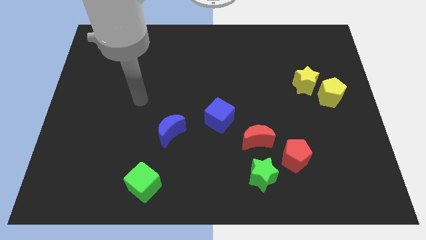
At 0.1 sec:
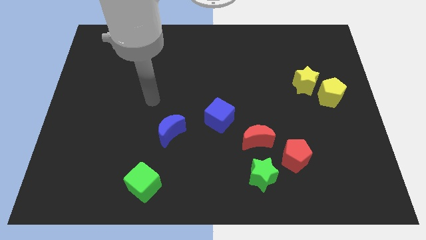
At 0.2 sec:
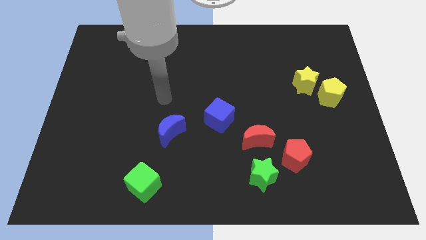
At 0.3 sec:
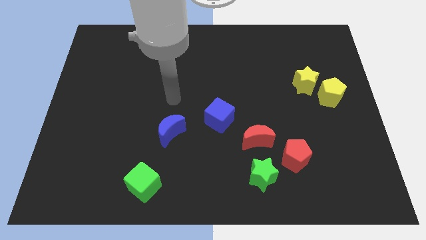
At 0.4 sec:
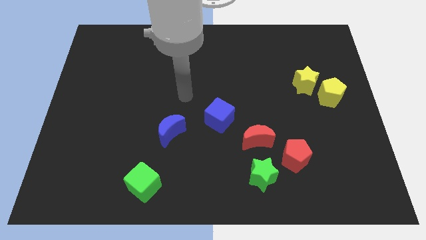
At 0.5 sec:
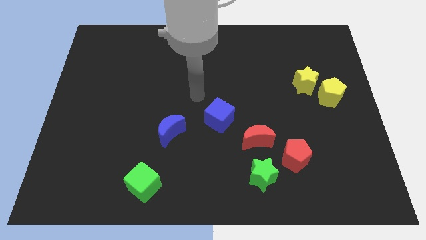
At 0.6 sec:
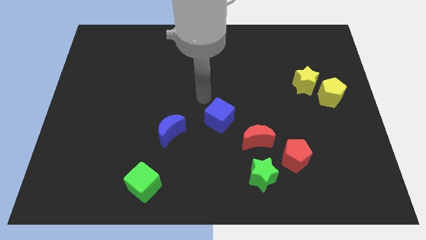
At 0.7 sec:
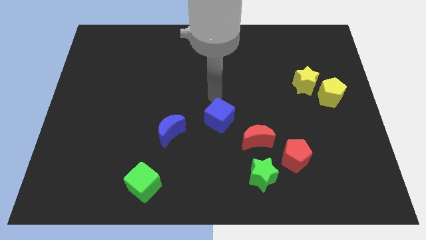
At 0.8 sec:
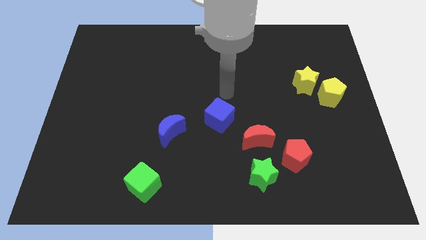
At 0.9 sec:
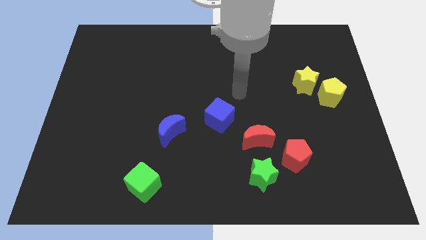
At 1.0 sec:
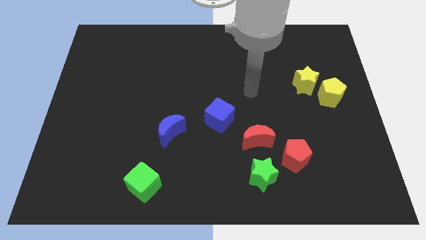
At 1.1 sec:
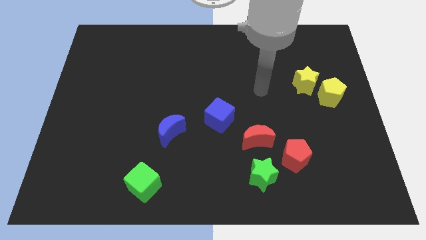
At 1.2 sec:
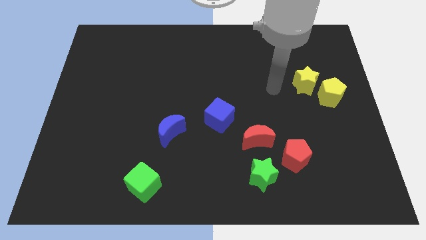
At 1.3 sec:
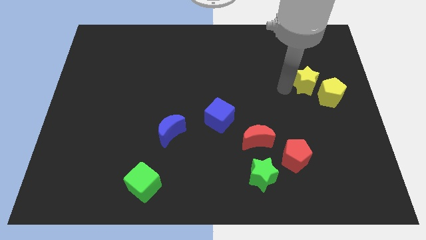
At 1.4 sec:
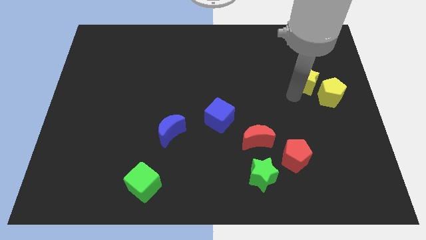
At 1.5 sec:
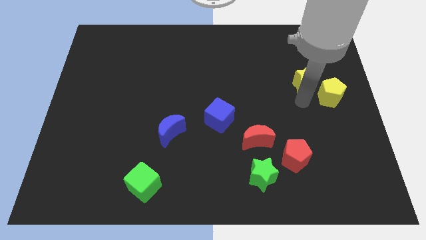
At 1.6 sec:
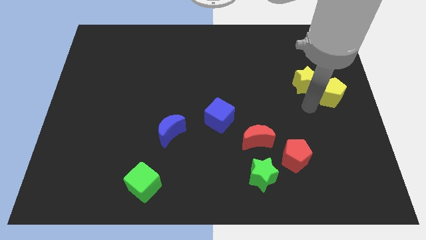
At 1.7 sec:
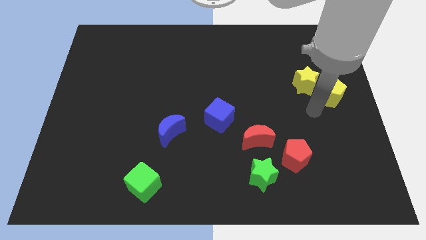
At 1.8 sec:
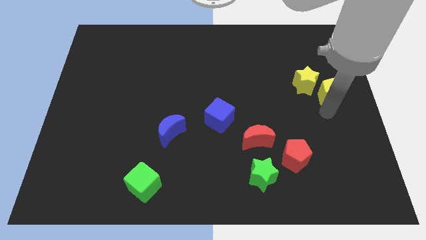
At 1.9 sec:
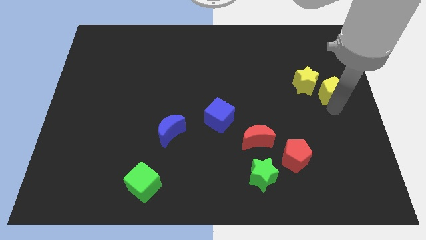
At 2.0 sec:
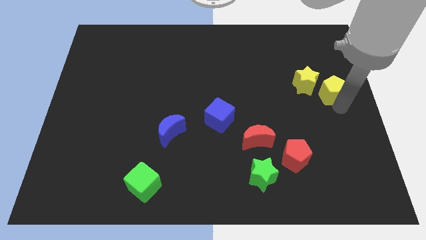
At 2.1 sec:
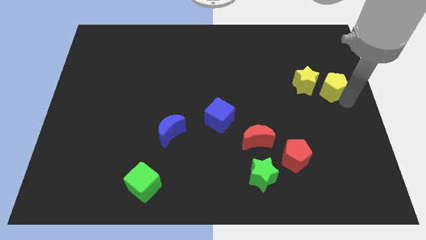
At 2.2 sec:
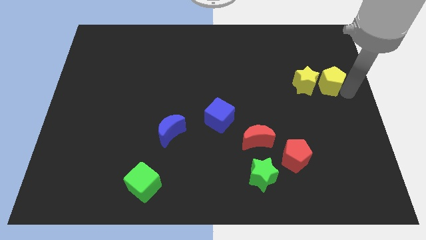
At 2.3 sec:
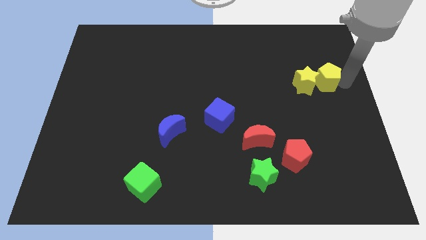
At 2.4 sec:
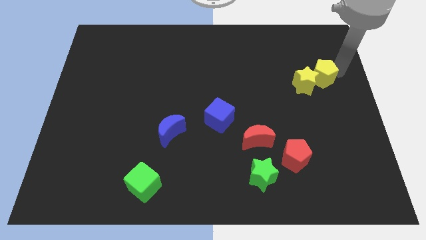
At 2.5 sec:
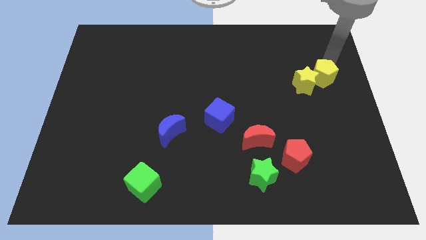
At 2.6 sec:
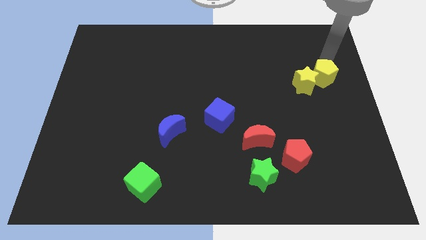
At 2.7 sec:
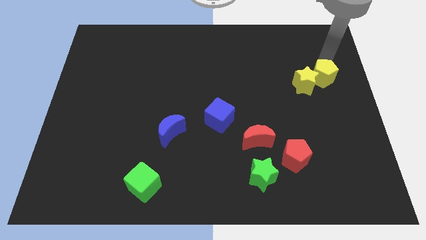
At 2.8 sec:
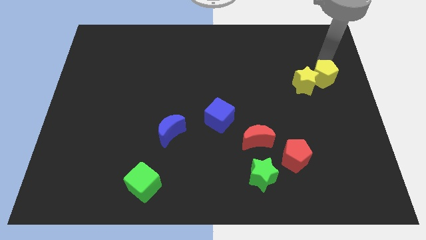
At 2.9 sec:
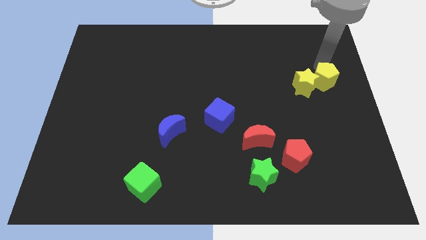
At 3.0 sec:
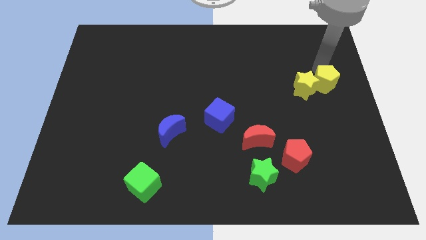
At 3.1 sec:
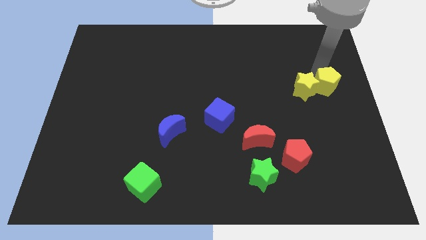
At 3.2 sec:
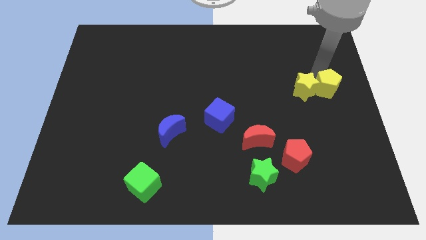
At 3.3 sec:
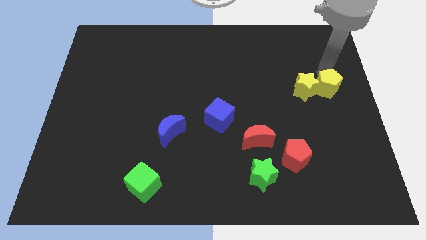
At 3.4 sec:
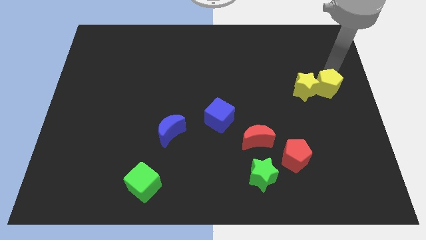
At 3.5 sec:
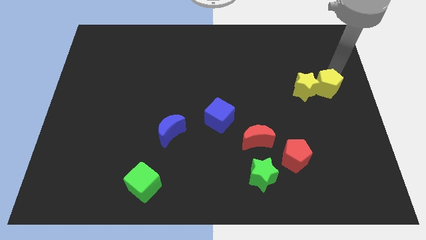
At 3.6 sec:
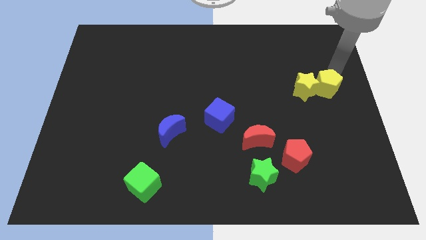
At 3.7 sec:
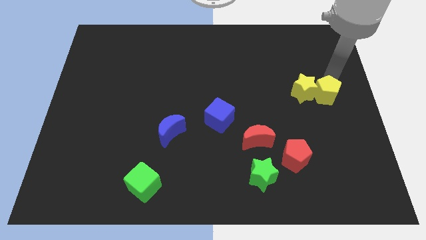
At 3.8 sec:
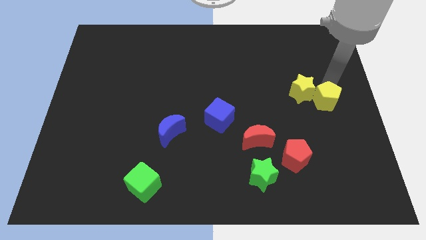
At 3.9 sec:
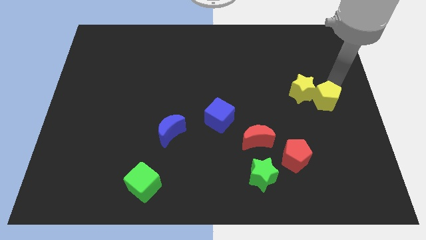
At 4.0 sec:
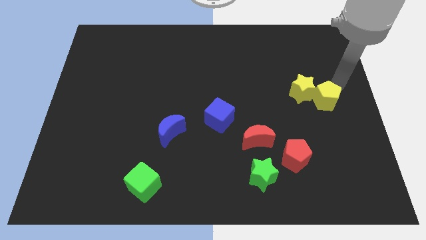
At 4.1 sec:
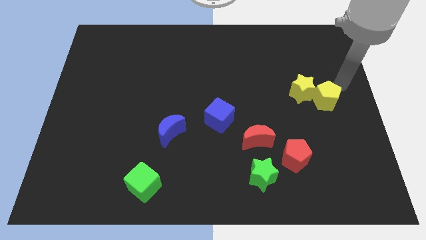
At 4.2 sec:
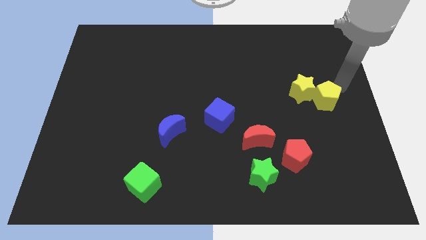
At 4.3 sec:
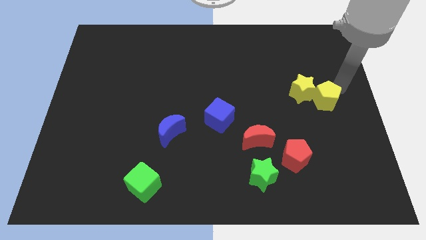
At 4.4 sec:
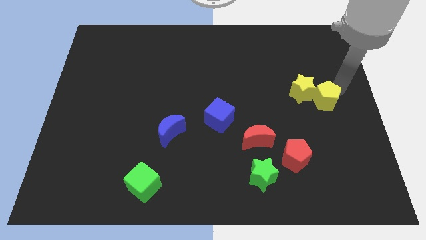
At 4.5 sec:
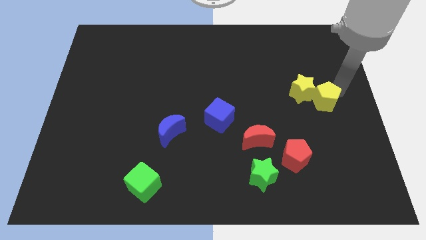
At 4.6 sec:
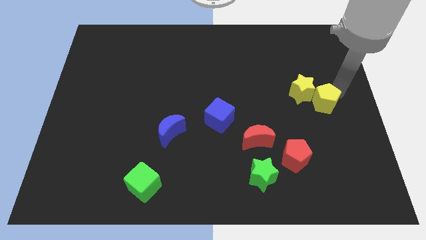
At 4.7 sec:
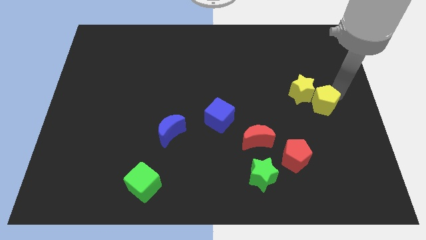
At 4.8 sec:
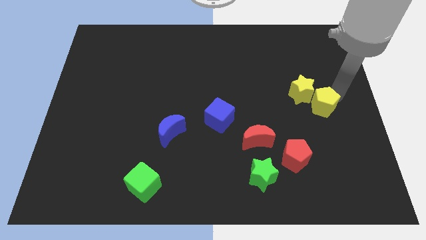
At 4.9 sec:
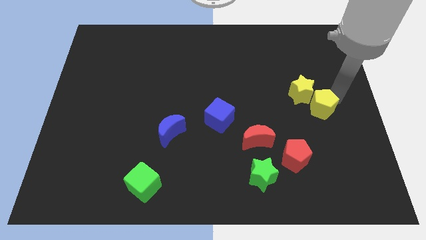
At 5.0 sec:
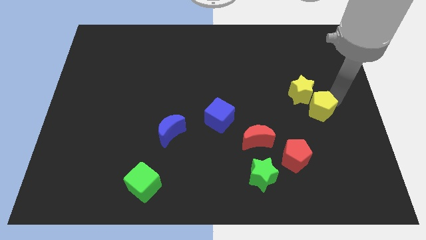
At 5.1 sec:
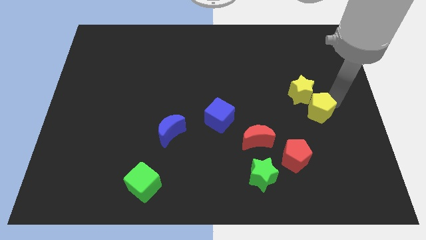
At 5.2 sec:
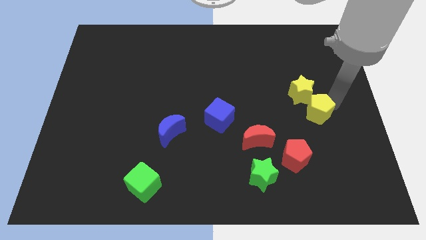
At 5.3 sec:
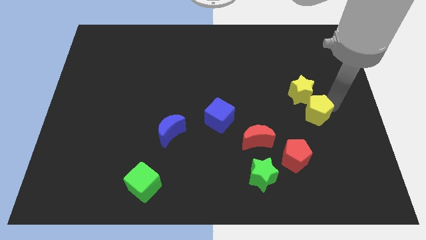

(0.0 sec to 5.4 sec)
slide the yellow pentagon down and to the left a bit

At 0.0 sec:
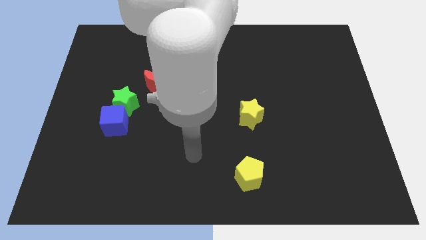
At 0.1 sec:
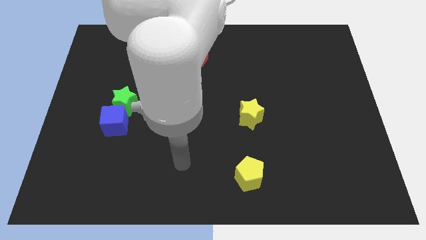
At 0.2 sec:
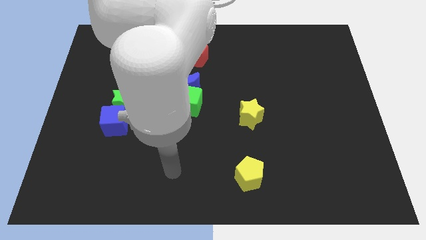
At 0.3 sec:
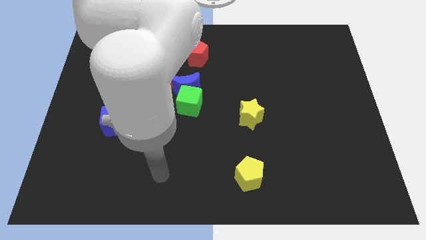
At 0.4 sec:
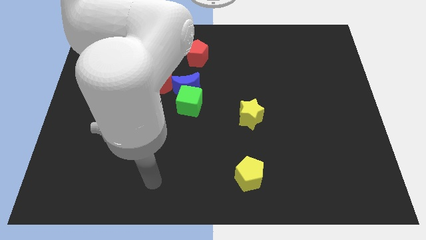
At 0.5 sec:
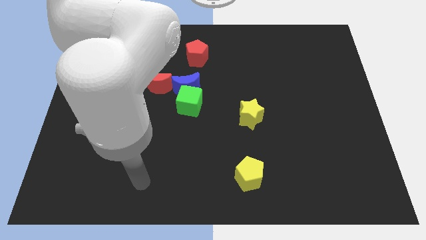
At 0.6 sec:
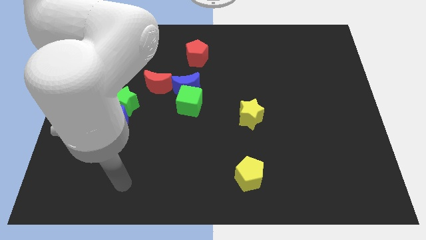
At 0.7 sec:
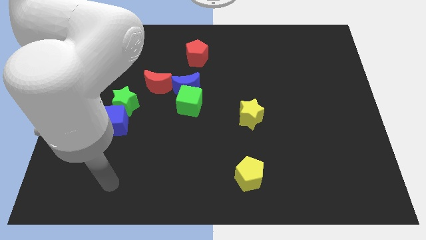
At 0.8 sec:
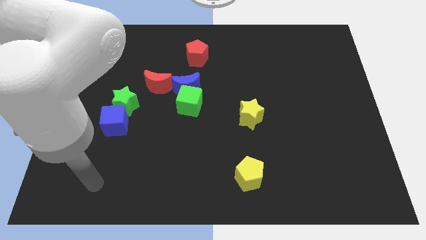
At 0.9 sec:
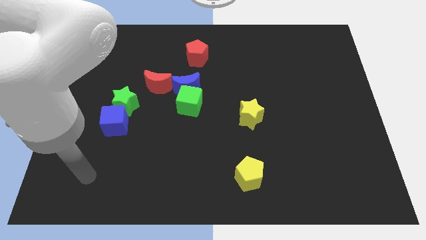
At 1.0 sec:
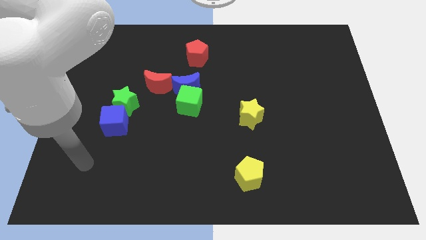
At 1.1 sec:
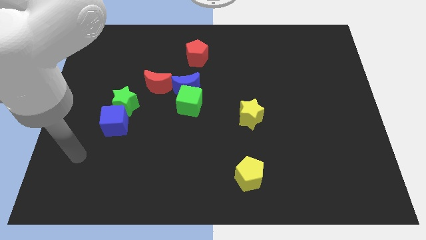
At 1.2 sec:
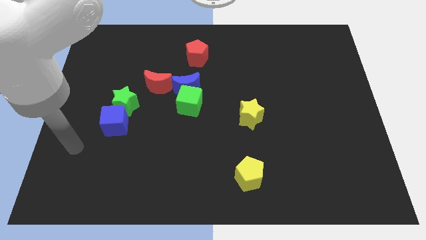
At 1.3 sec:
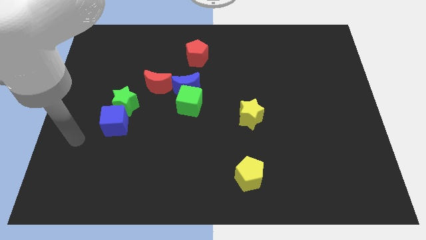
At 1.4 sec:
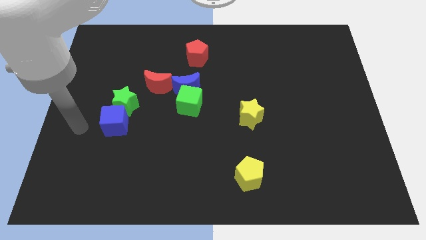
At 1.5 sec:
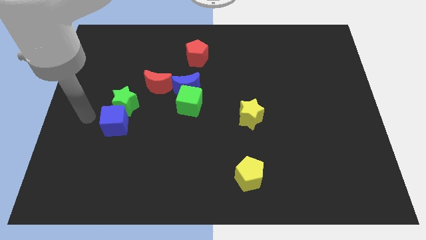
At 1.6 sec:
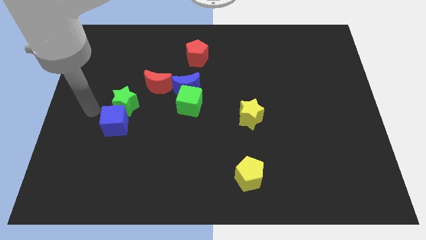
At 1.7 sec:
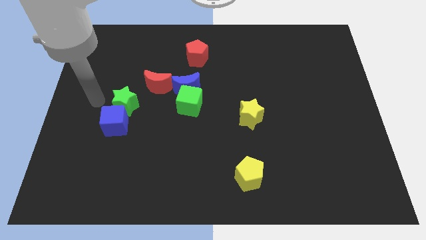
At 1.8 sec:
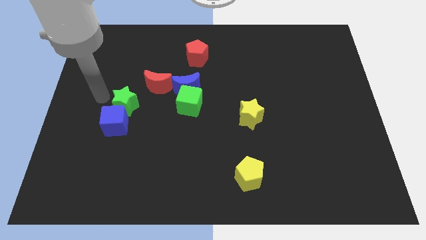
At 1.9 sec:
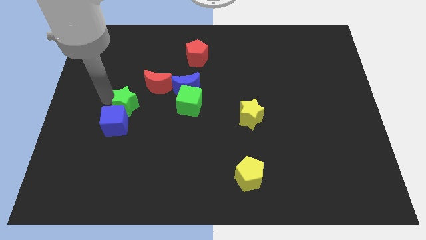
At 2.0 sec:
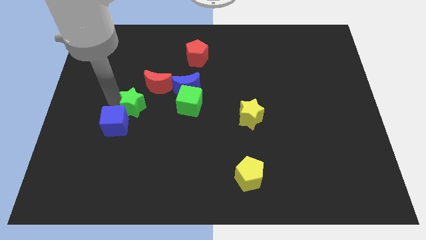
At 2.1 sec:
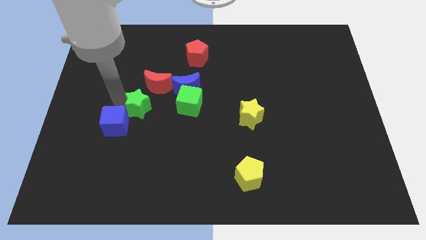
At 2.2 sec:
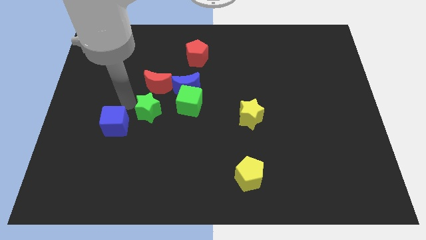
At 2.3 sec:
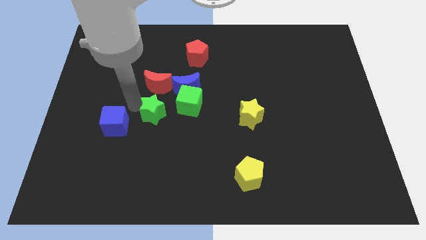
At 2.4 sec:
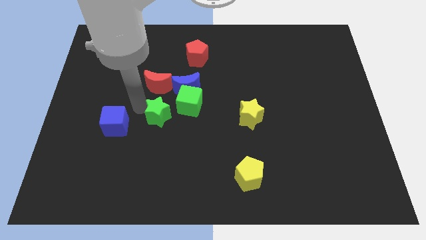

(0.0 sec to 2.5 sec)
slide the green star right slightly
